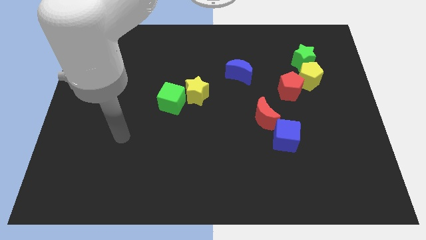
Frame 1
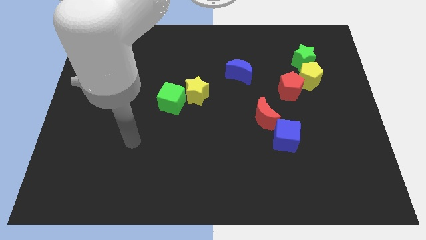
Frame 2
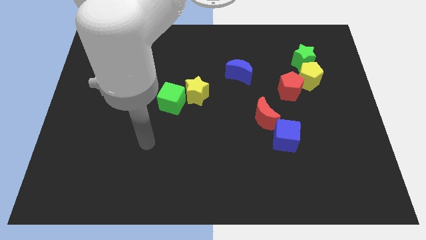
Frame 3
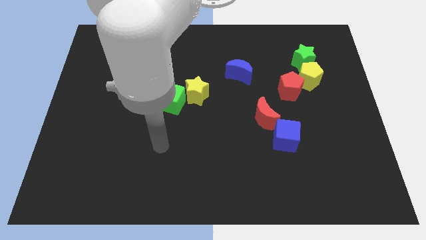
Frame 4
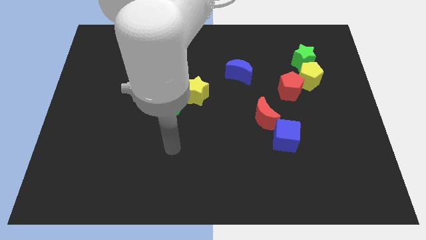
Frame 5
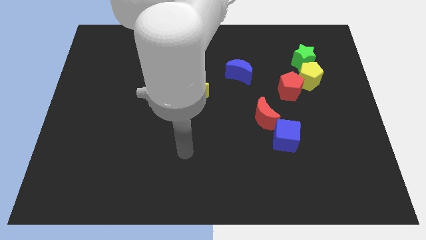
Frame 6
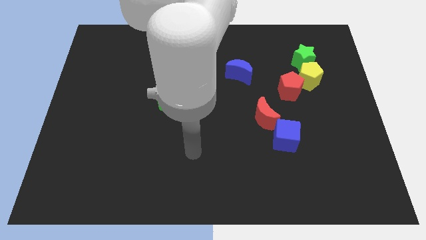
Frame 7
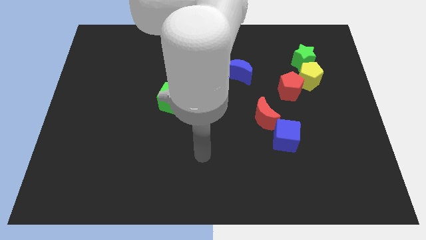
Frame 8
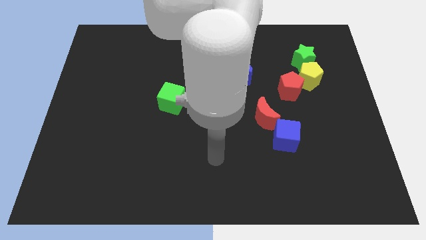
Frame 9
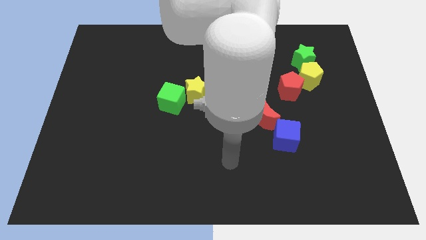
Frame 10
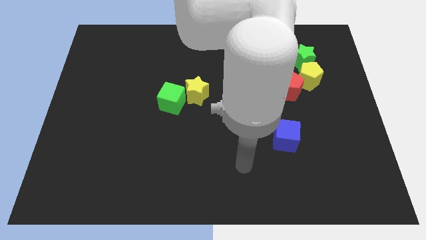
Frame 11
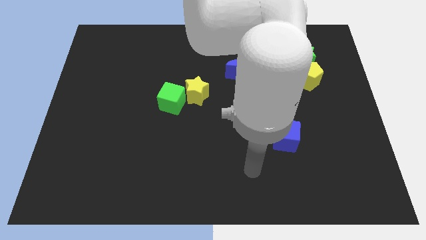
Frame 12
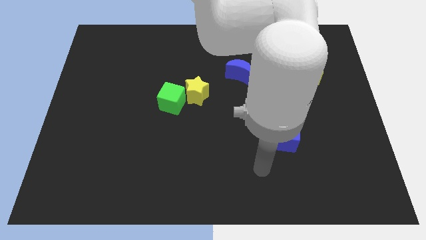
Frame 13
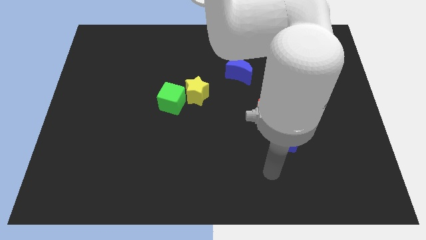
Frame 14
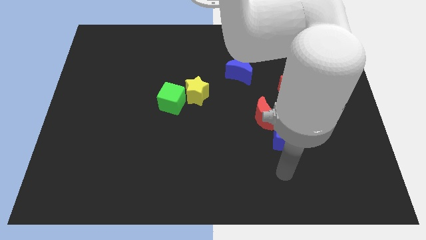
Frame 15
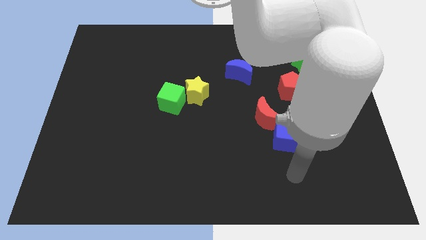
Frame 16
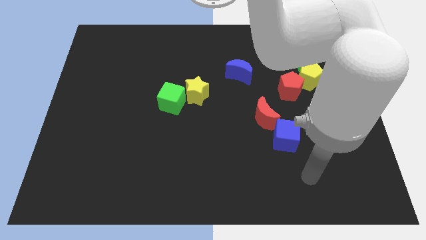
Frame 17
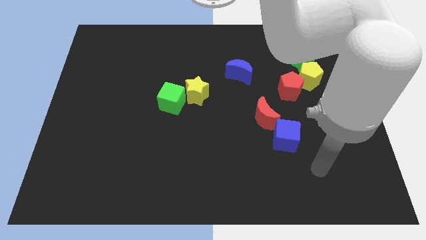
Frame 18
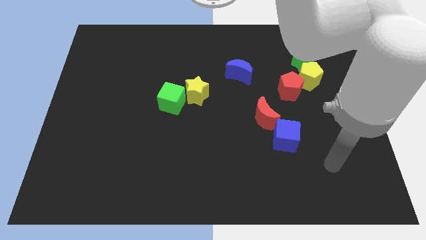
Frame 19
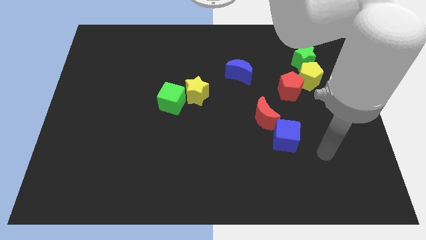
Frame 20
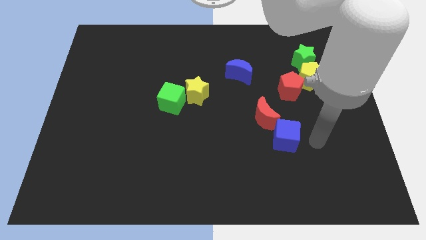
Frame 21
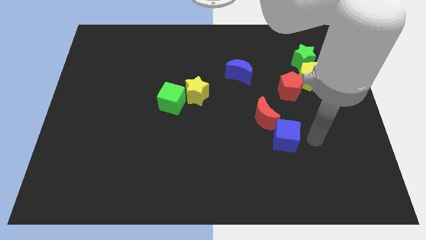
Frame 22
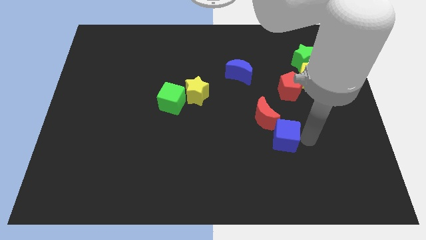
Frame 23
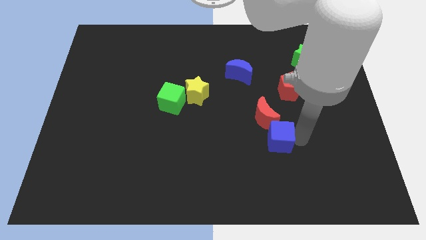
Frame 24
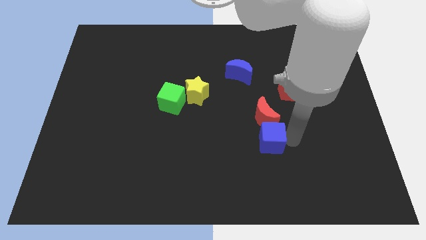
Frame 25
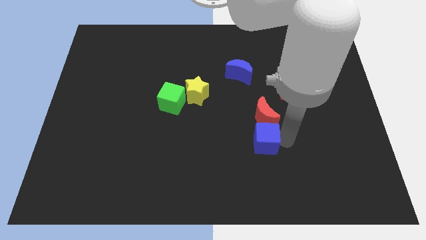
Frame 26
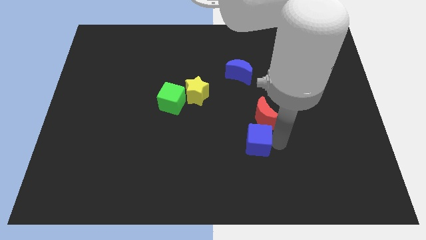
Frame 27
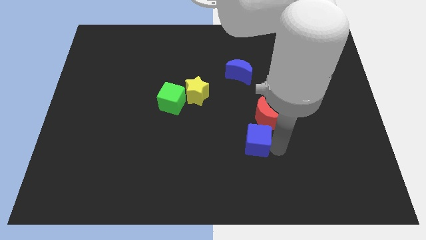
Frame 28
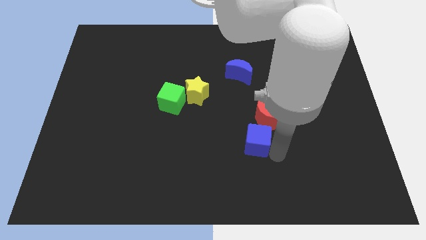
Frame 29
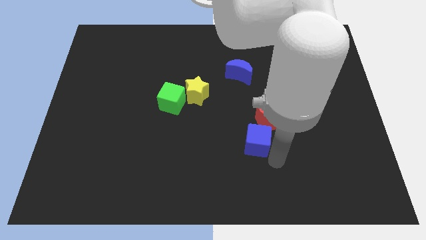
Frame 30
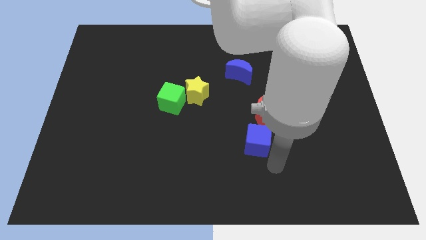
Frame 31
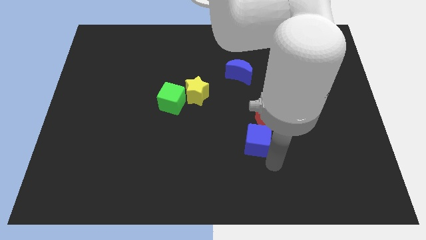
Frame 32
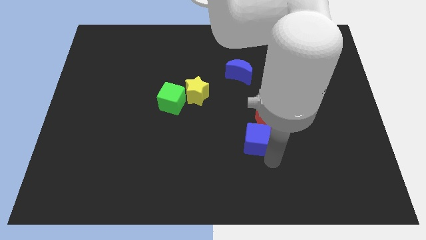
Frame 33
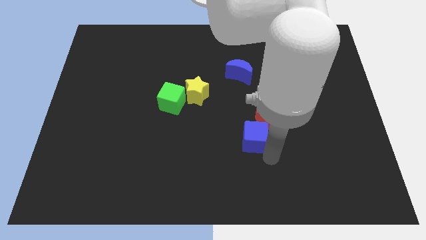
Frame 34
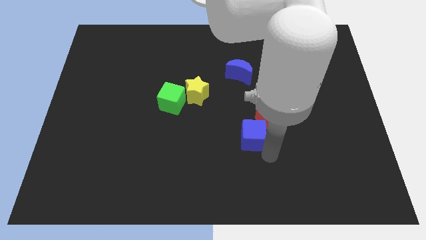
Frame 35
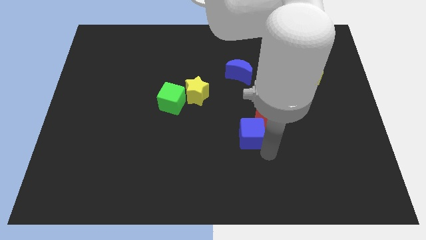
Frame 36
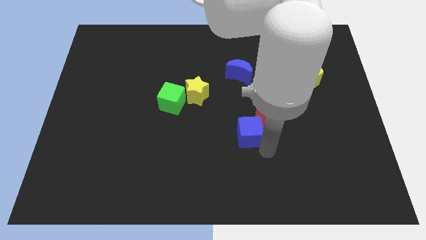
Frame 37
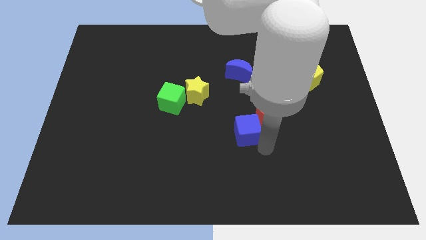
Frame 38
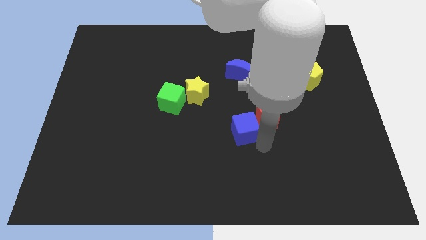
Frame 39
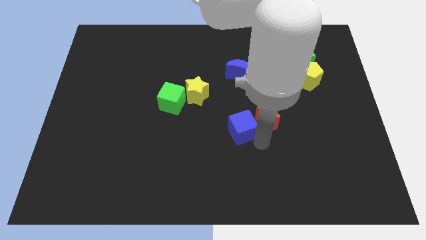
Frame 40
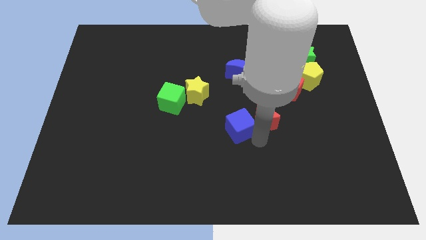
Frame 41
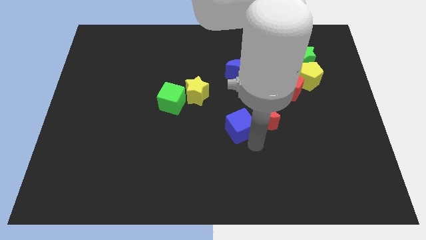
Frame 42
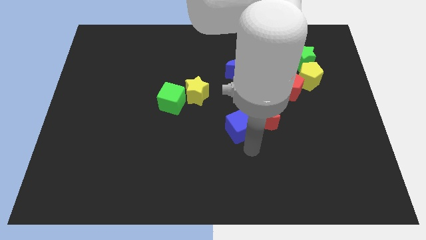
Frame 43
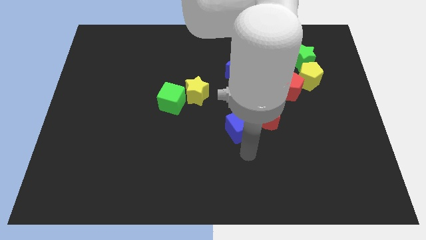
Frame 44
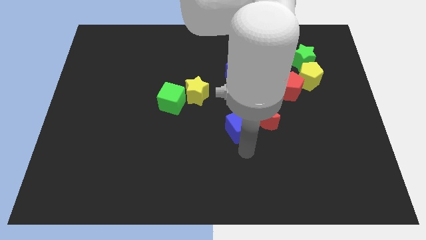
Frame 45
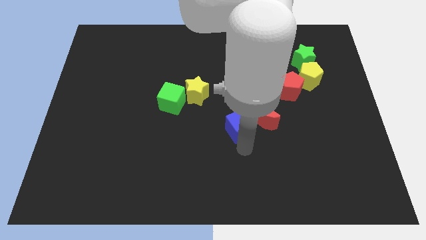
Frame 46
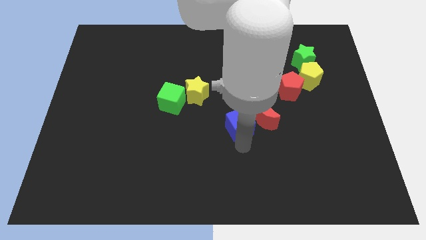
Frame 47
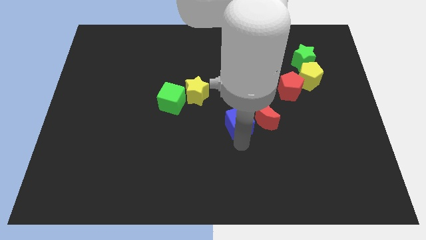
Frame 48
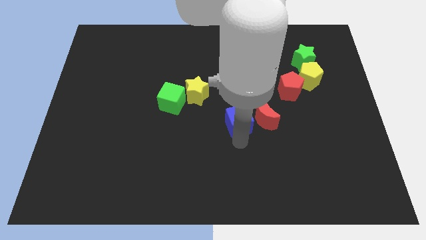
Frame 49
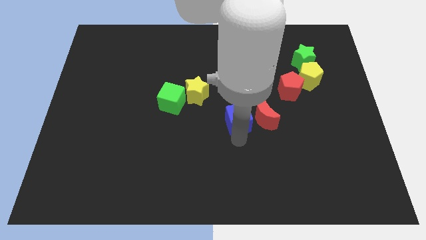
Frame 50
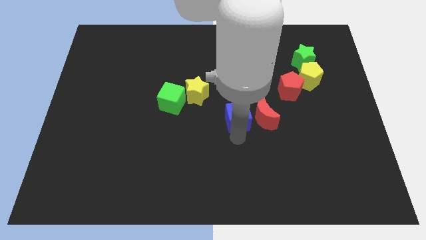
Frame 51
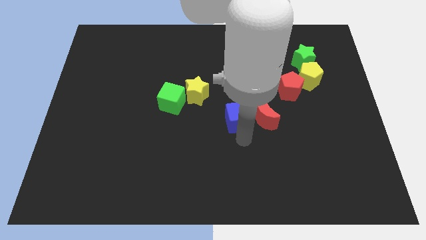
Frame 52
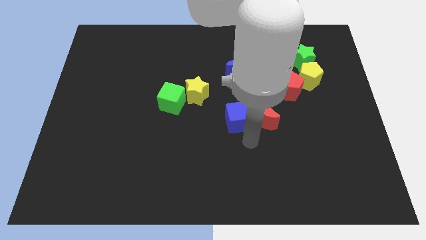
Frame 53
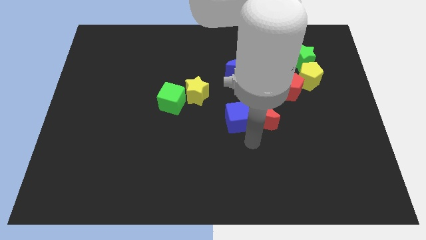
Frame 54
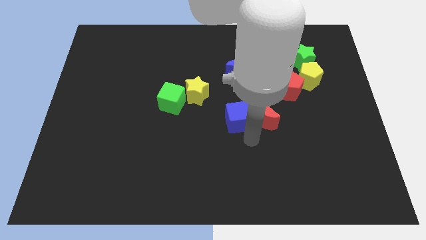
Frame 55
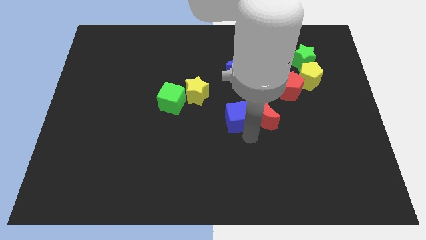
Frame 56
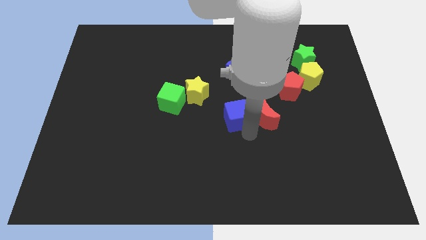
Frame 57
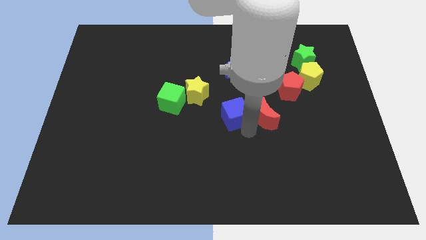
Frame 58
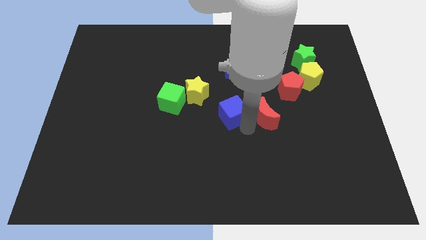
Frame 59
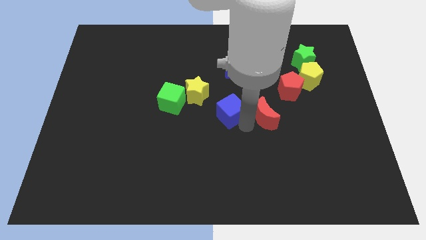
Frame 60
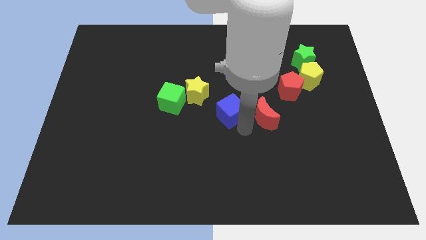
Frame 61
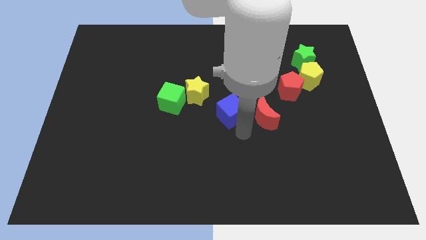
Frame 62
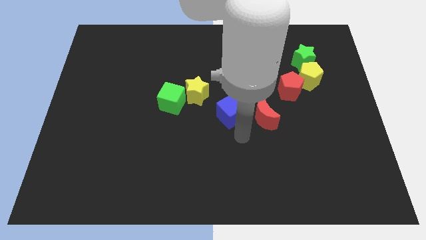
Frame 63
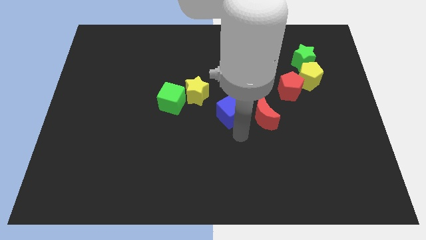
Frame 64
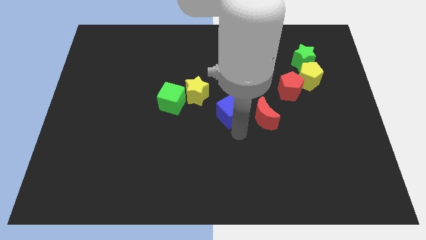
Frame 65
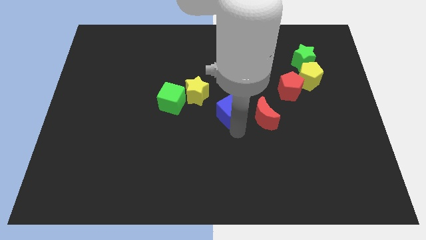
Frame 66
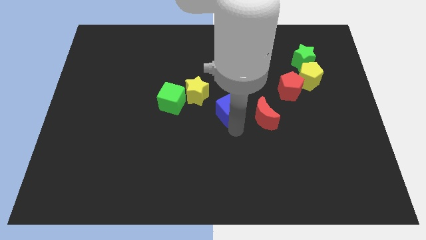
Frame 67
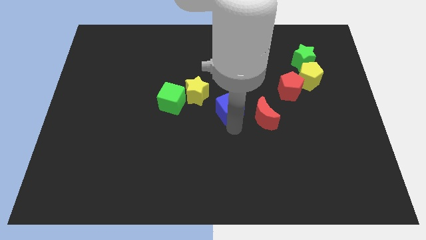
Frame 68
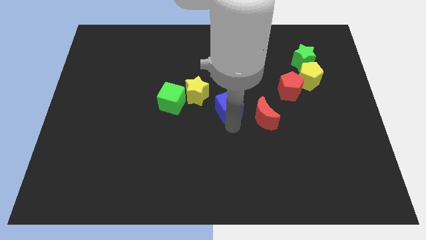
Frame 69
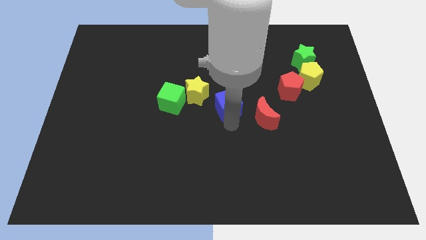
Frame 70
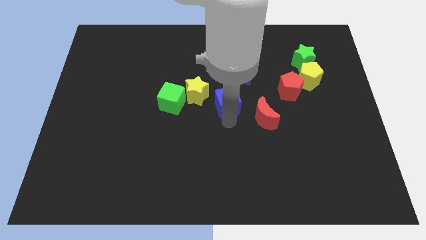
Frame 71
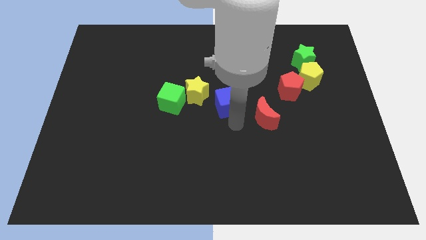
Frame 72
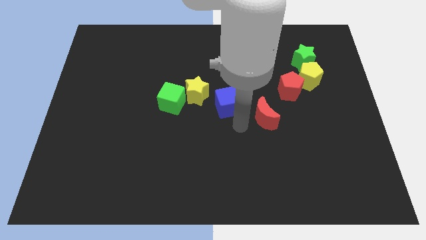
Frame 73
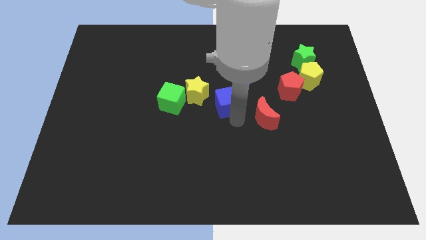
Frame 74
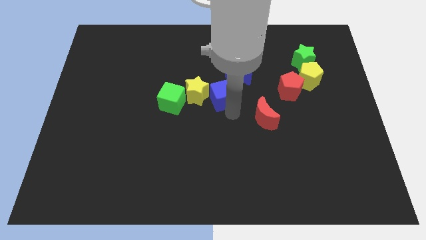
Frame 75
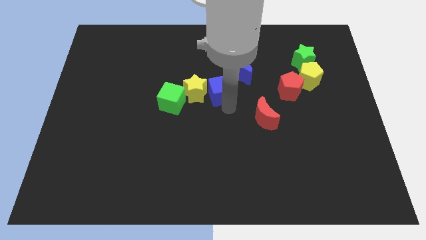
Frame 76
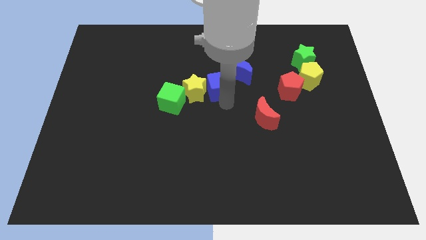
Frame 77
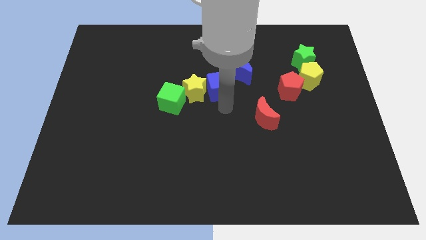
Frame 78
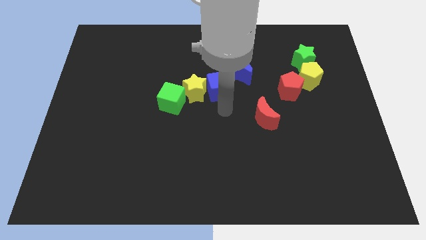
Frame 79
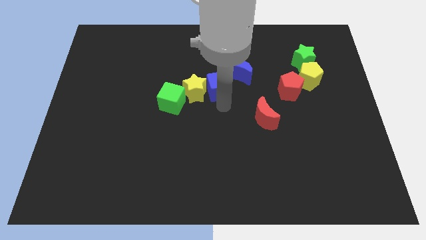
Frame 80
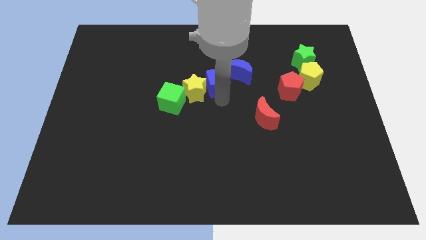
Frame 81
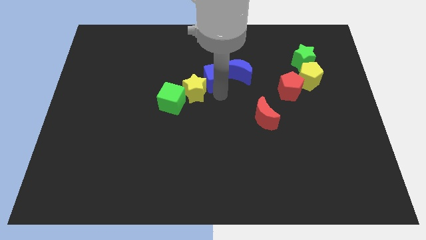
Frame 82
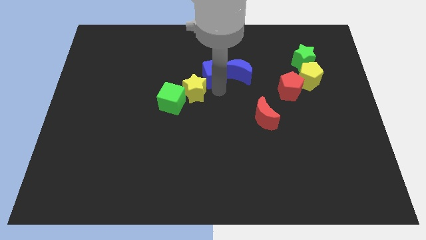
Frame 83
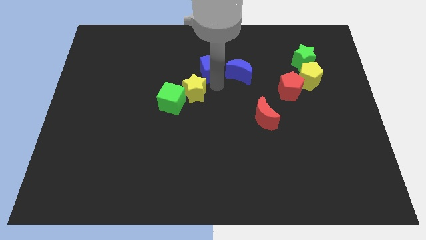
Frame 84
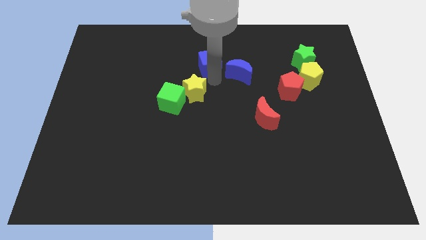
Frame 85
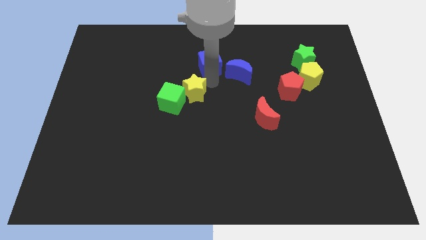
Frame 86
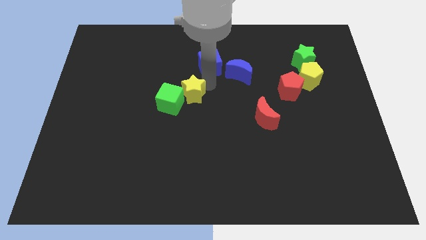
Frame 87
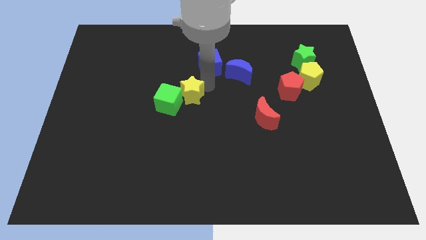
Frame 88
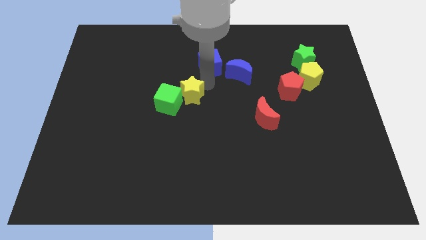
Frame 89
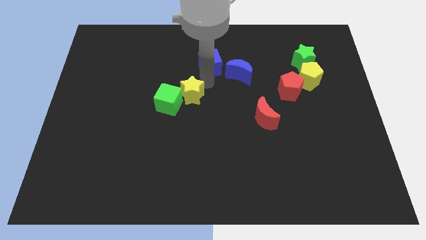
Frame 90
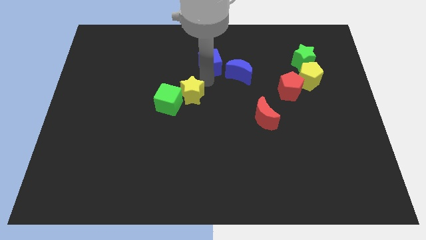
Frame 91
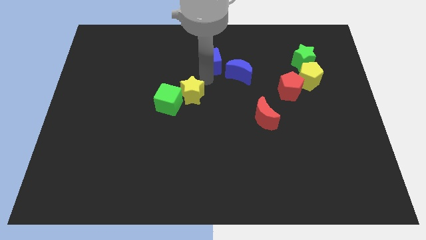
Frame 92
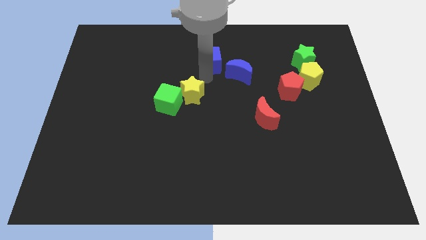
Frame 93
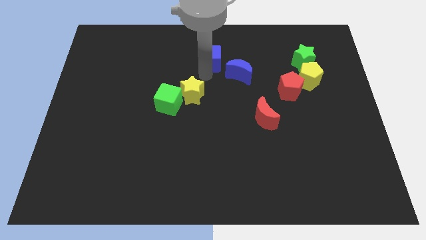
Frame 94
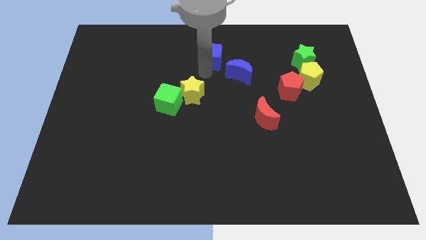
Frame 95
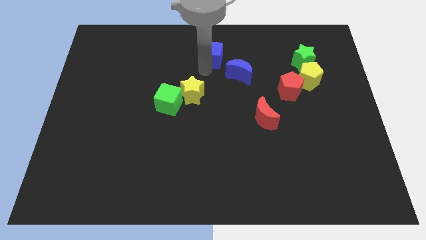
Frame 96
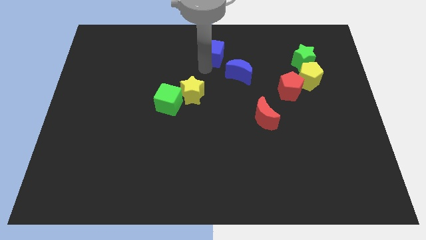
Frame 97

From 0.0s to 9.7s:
slide the blue cube to the top side
